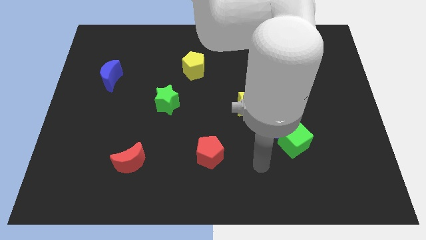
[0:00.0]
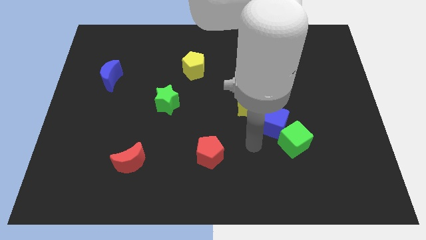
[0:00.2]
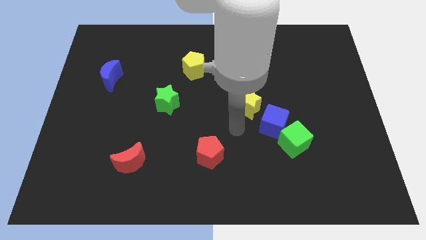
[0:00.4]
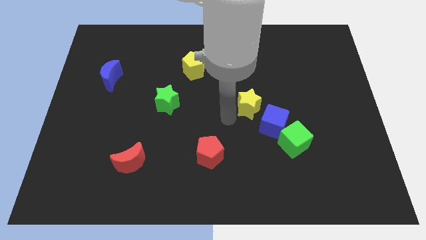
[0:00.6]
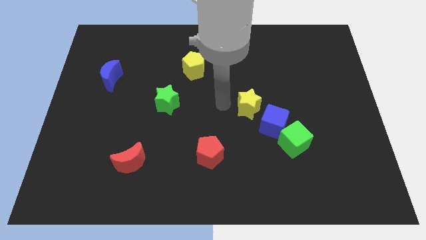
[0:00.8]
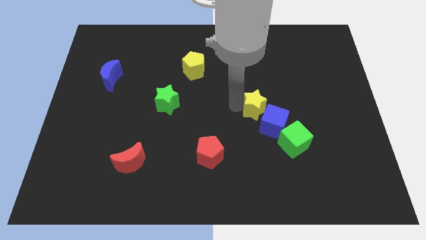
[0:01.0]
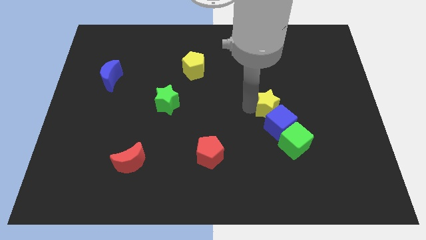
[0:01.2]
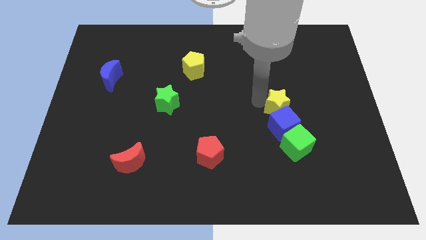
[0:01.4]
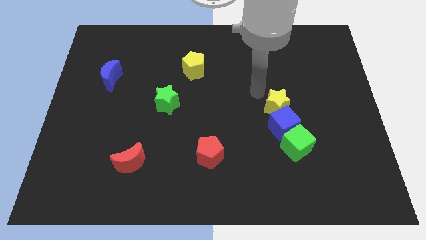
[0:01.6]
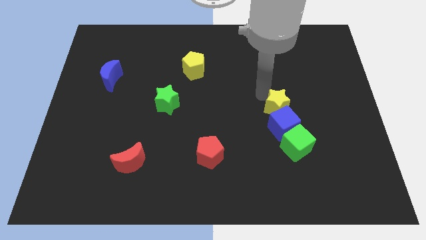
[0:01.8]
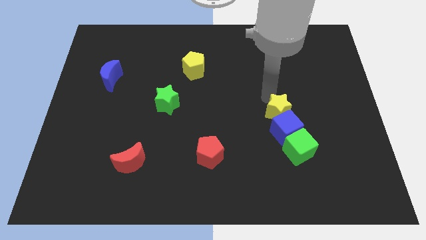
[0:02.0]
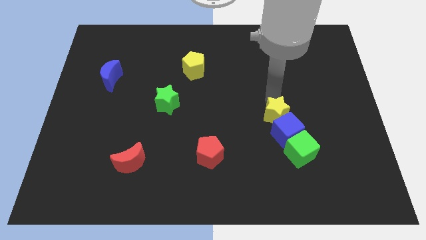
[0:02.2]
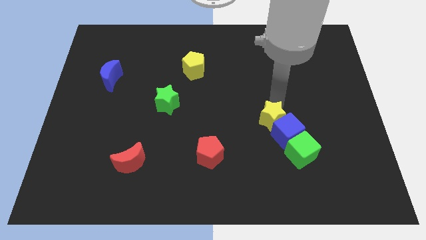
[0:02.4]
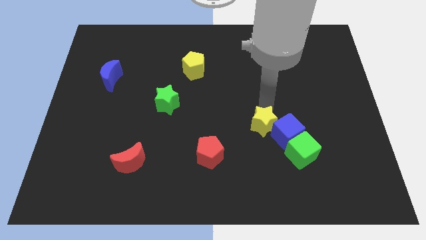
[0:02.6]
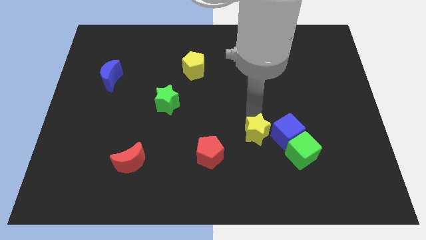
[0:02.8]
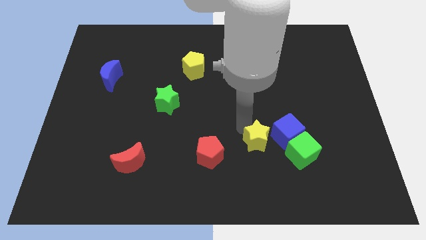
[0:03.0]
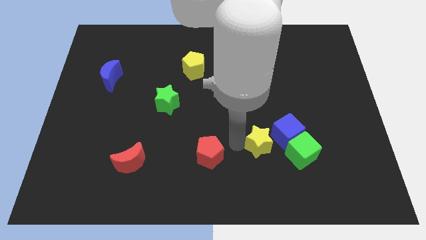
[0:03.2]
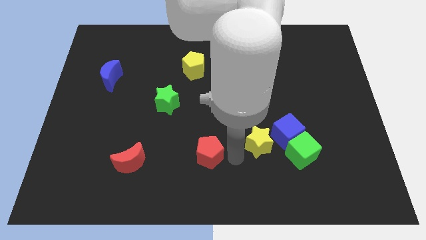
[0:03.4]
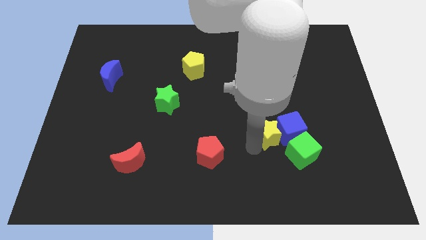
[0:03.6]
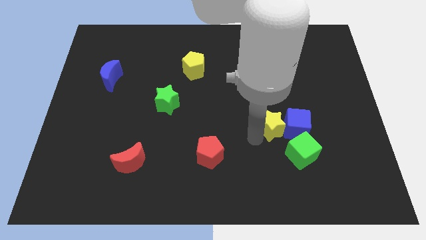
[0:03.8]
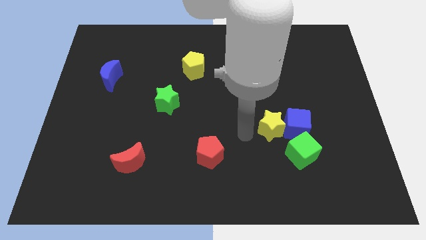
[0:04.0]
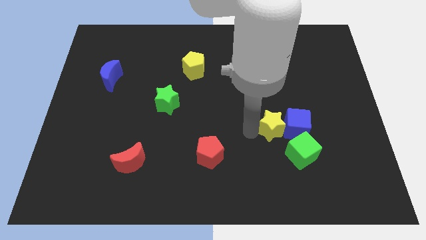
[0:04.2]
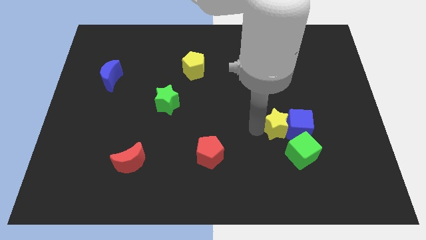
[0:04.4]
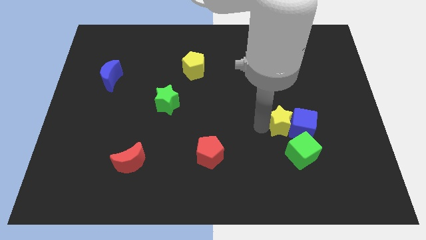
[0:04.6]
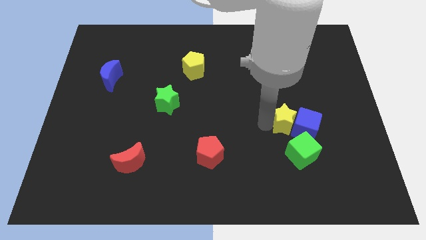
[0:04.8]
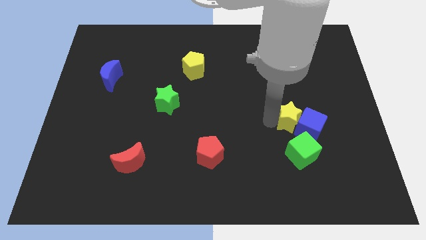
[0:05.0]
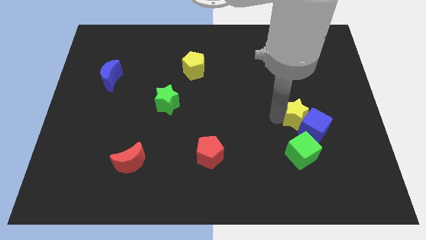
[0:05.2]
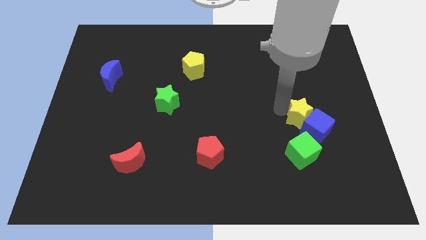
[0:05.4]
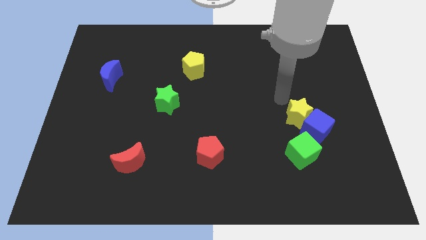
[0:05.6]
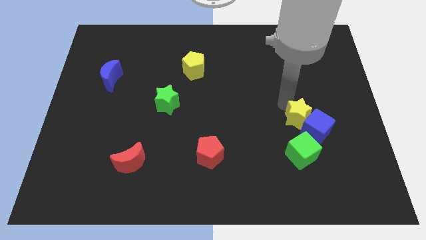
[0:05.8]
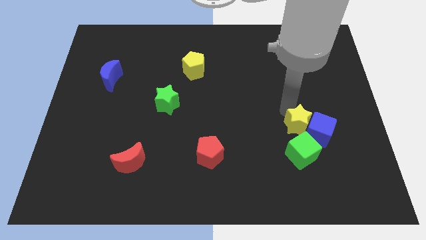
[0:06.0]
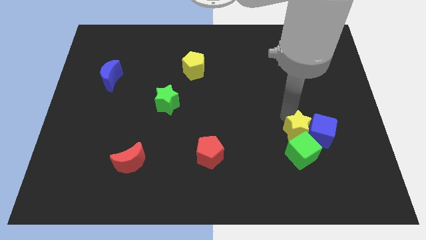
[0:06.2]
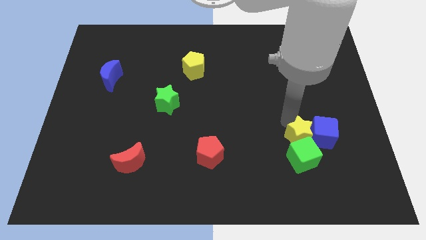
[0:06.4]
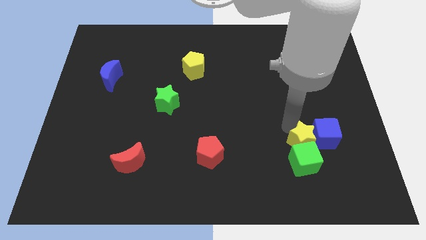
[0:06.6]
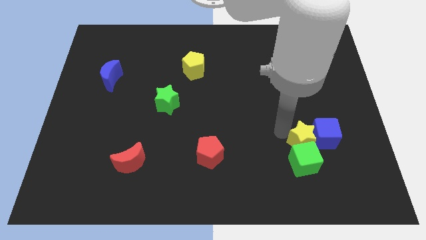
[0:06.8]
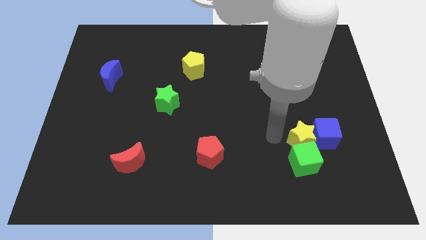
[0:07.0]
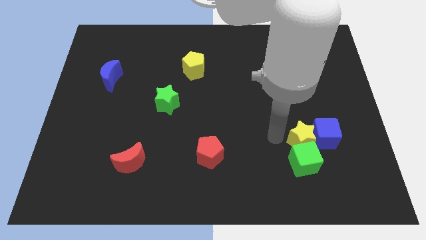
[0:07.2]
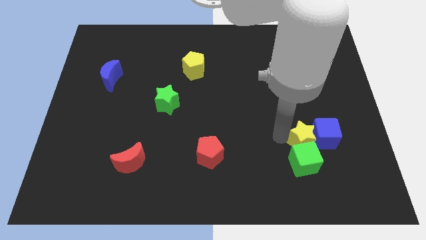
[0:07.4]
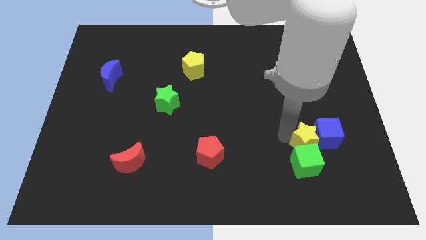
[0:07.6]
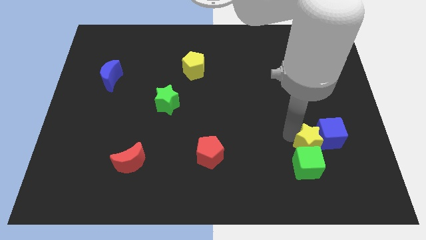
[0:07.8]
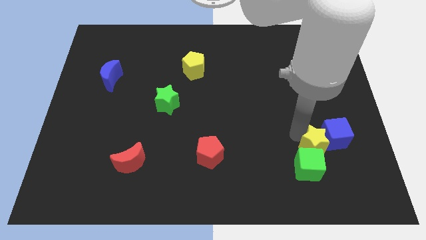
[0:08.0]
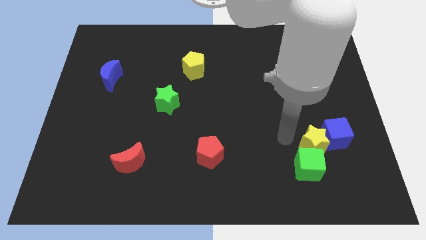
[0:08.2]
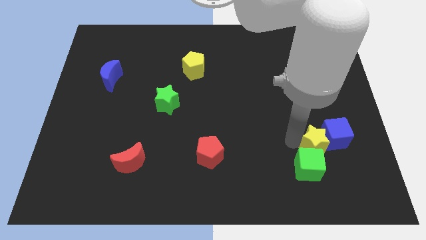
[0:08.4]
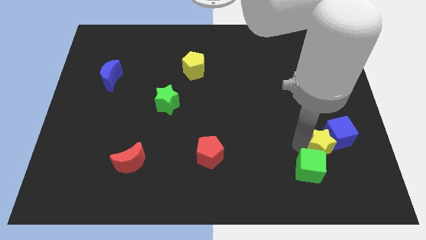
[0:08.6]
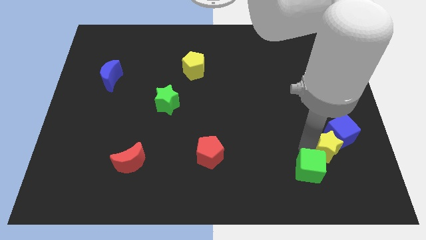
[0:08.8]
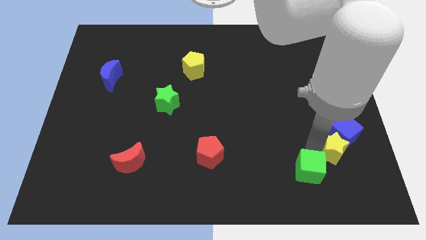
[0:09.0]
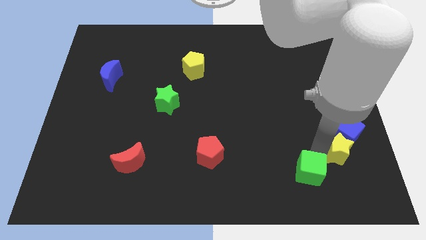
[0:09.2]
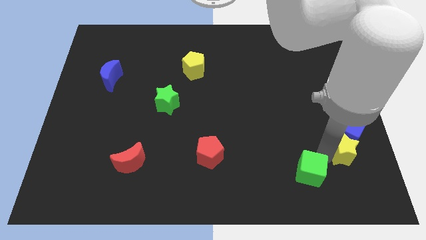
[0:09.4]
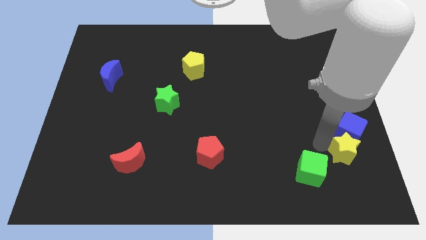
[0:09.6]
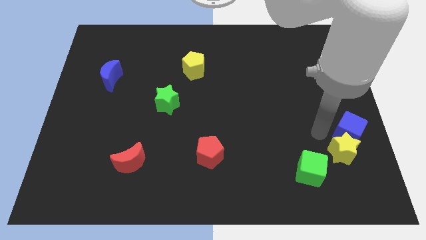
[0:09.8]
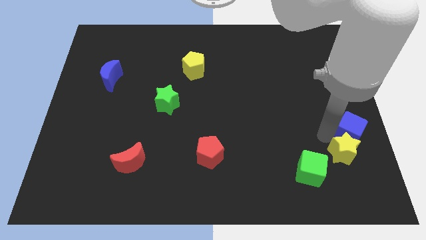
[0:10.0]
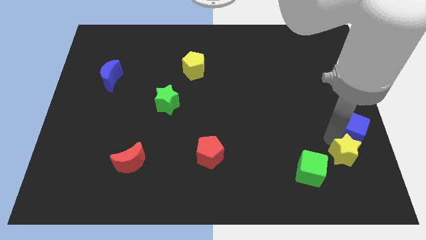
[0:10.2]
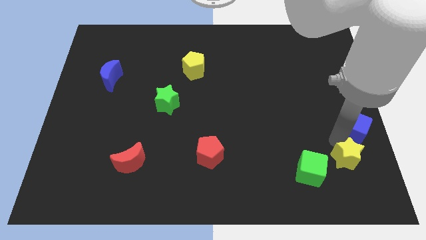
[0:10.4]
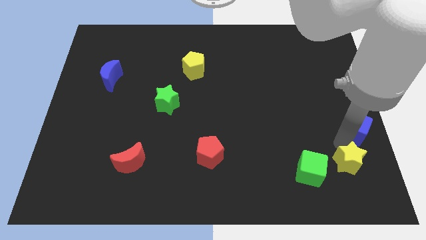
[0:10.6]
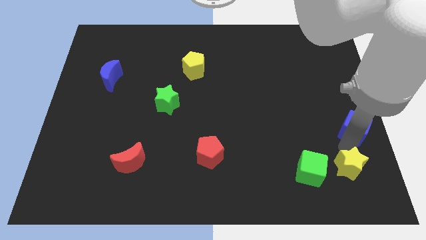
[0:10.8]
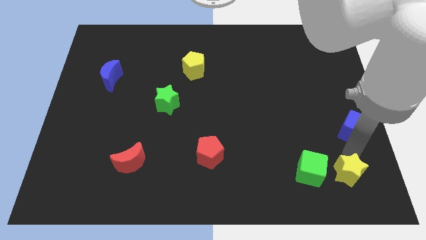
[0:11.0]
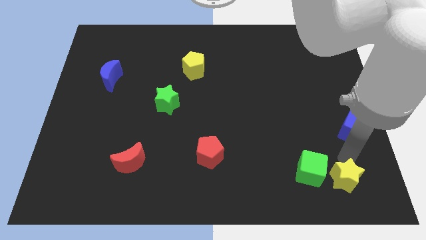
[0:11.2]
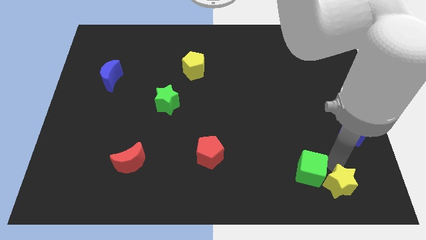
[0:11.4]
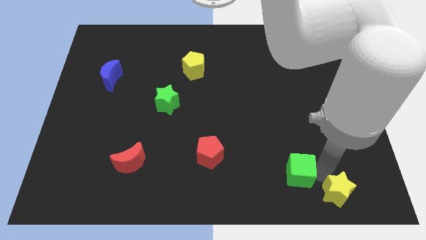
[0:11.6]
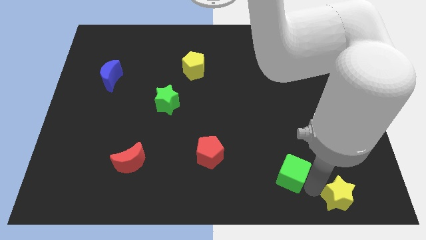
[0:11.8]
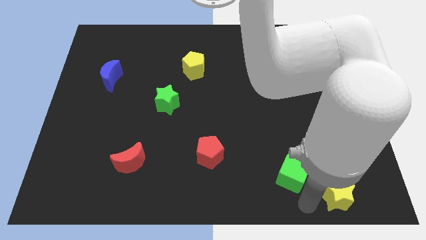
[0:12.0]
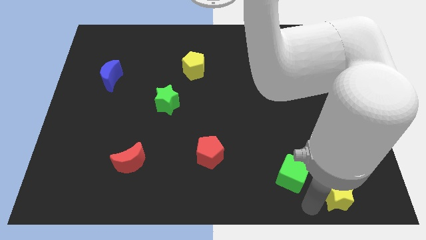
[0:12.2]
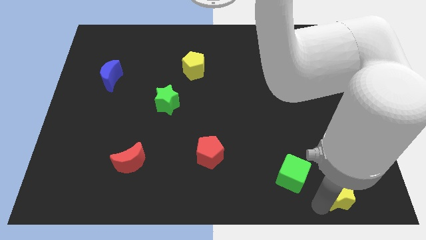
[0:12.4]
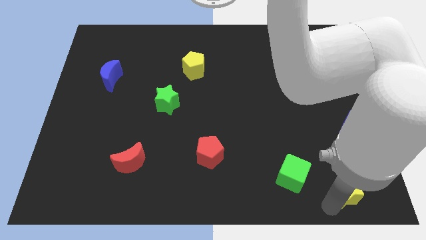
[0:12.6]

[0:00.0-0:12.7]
move the yellow star to the bottom right of the board
